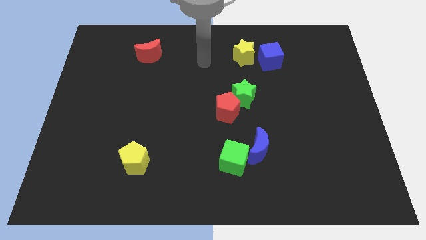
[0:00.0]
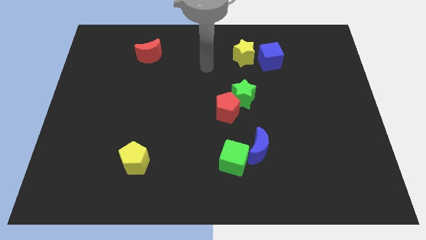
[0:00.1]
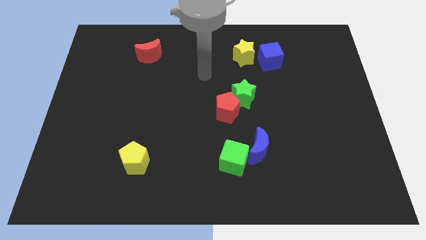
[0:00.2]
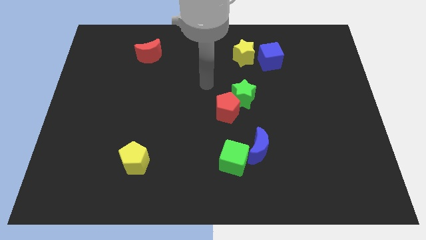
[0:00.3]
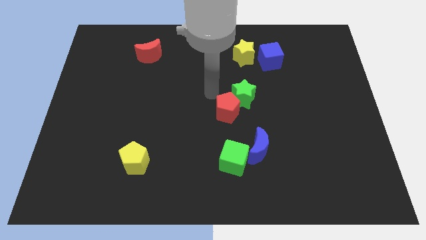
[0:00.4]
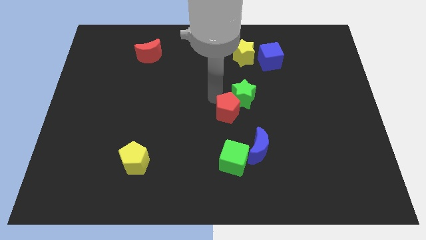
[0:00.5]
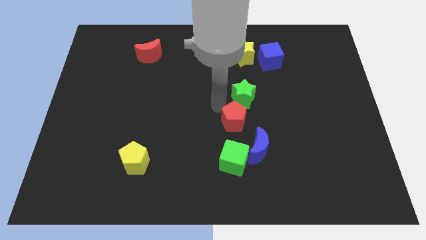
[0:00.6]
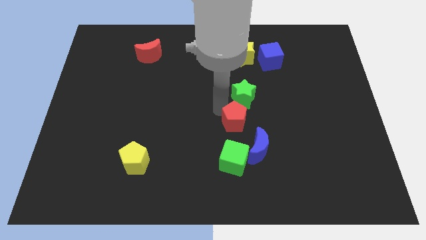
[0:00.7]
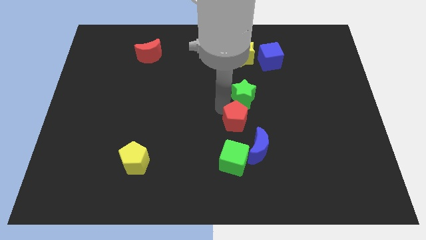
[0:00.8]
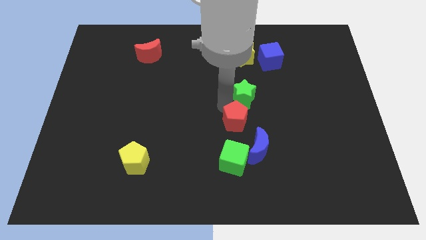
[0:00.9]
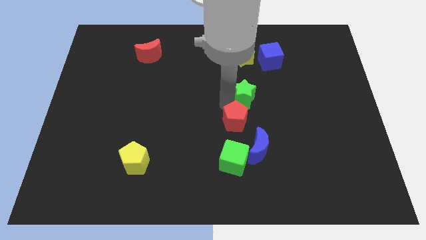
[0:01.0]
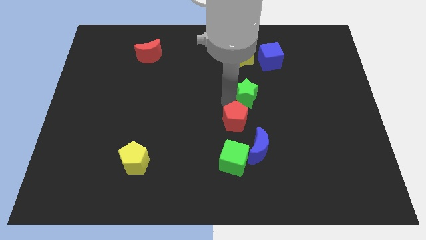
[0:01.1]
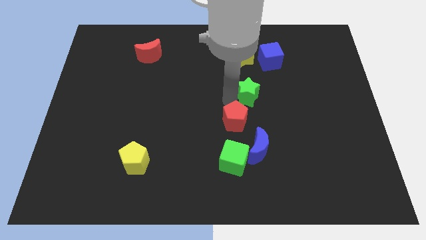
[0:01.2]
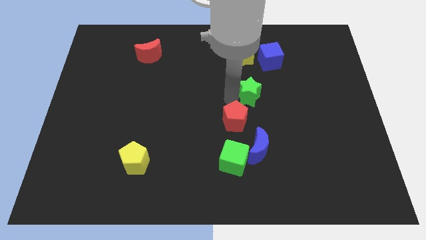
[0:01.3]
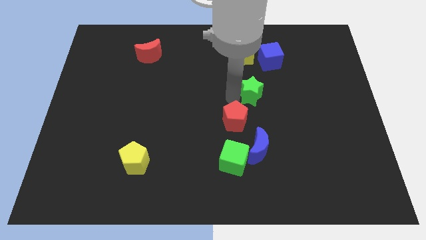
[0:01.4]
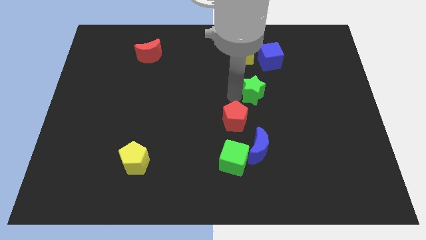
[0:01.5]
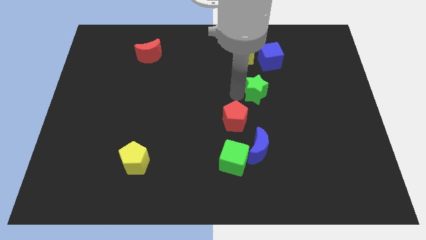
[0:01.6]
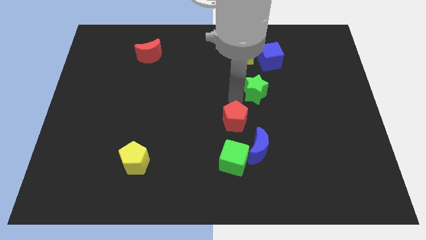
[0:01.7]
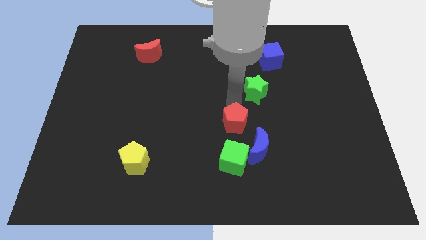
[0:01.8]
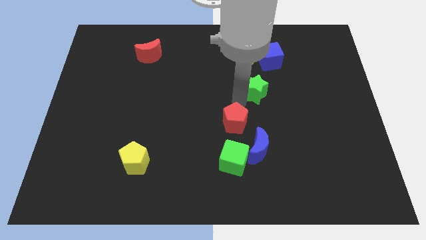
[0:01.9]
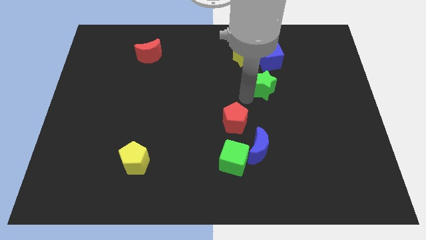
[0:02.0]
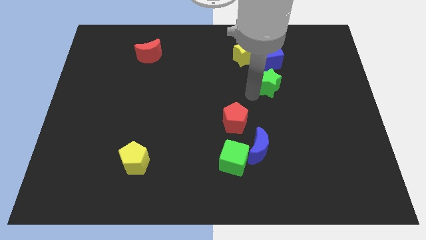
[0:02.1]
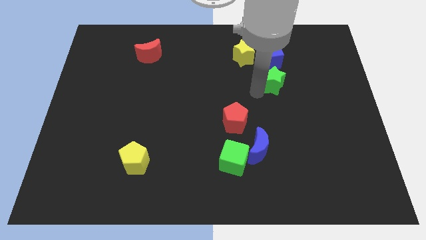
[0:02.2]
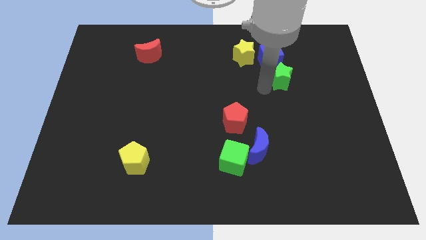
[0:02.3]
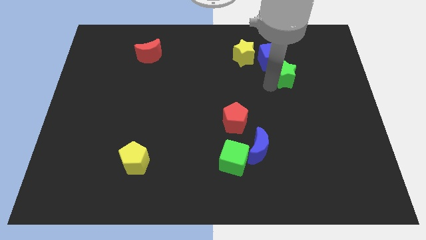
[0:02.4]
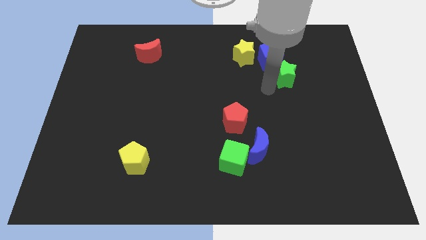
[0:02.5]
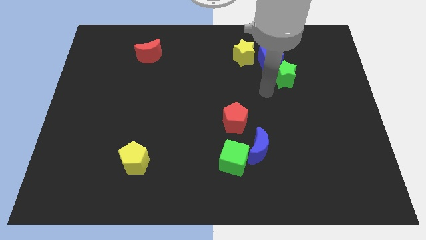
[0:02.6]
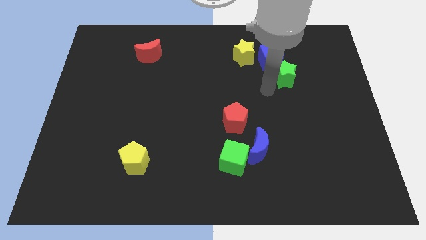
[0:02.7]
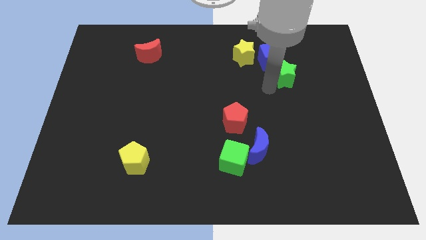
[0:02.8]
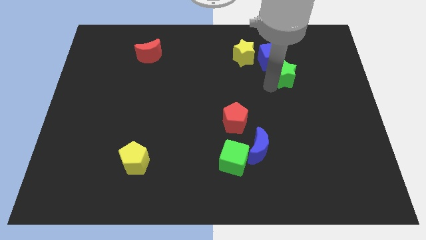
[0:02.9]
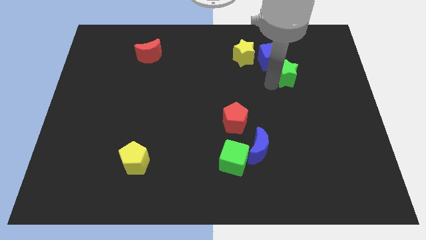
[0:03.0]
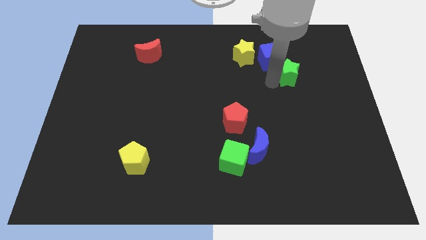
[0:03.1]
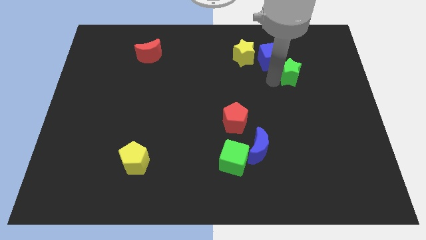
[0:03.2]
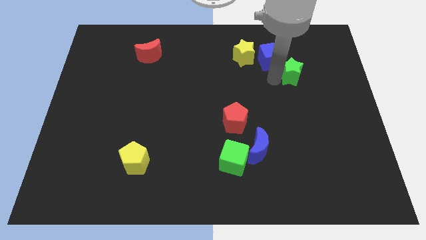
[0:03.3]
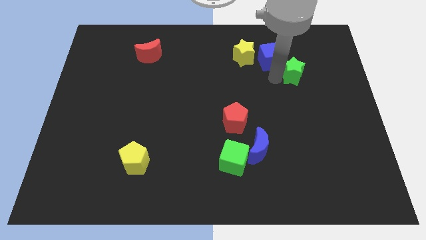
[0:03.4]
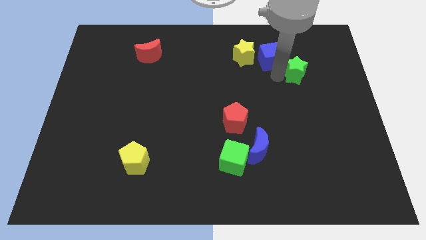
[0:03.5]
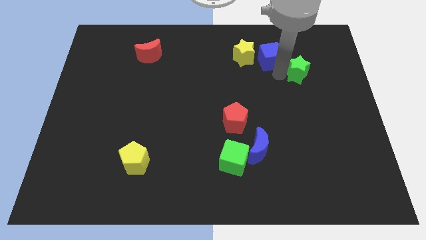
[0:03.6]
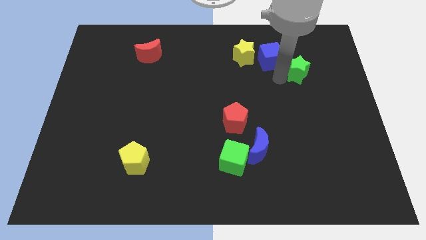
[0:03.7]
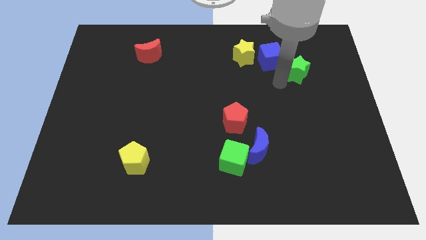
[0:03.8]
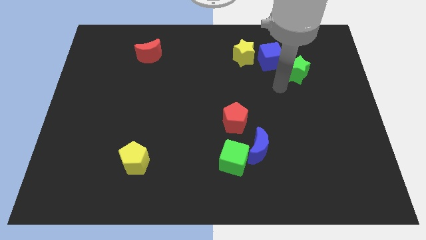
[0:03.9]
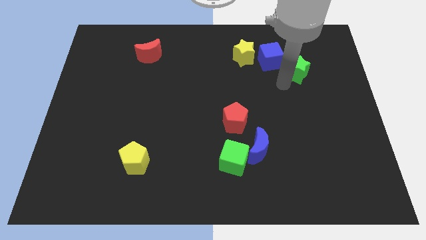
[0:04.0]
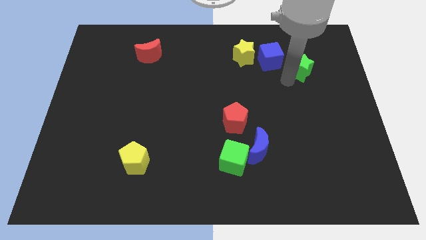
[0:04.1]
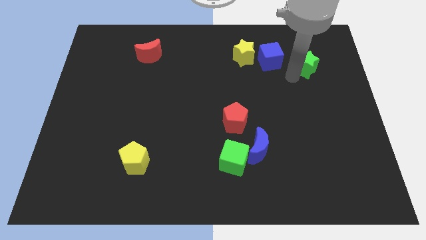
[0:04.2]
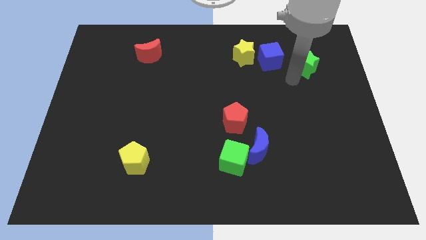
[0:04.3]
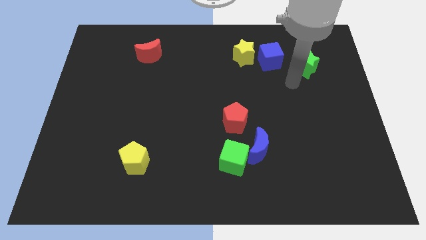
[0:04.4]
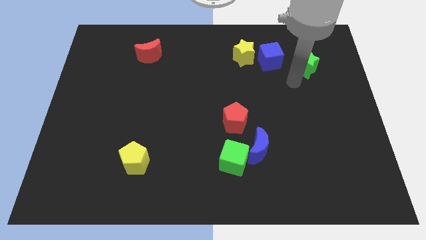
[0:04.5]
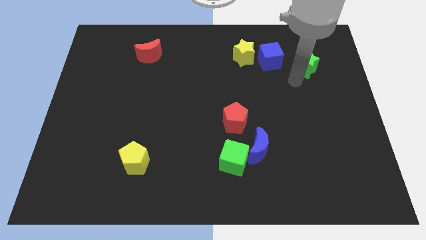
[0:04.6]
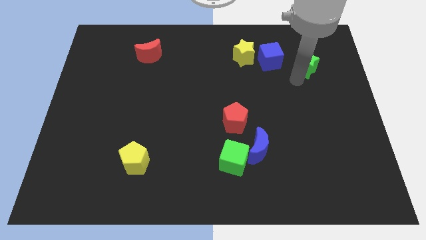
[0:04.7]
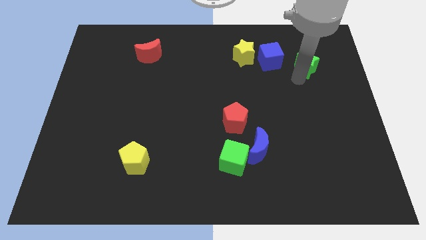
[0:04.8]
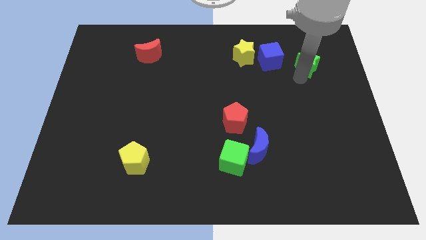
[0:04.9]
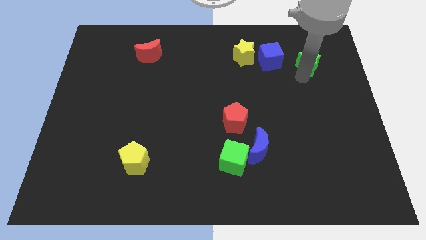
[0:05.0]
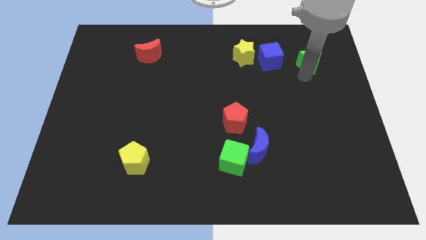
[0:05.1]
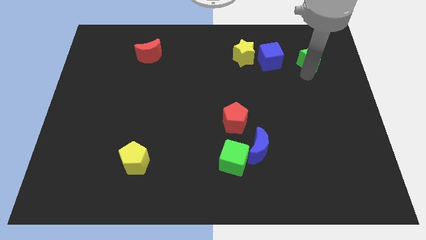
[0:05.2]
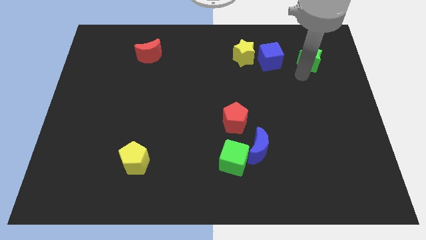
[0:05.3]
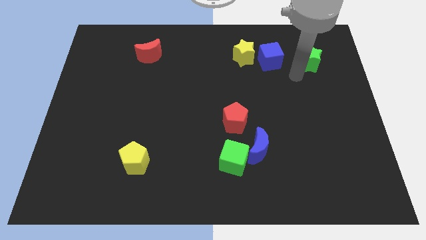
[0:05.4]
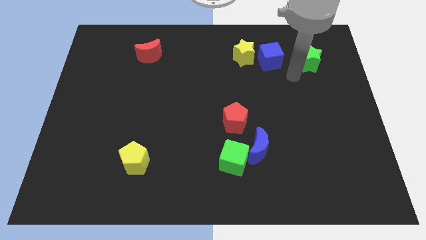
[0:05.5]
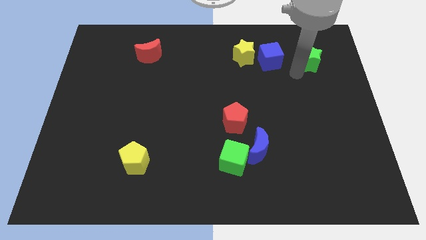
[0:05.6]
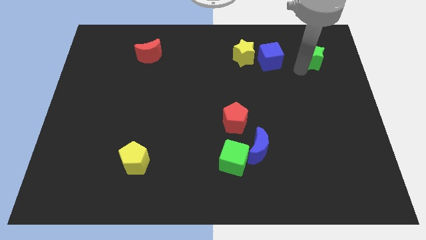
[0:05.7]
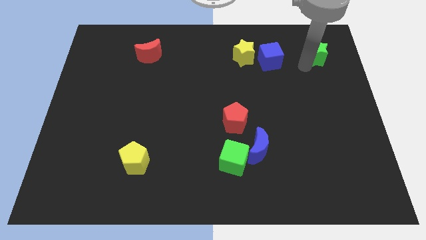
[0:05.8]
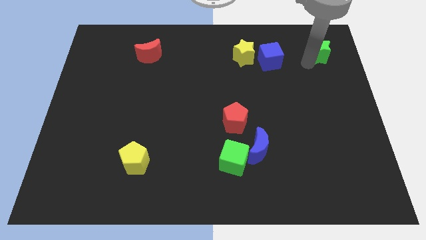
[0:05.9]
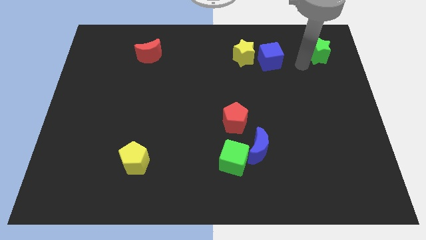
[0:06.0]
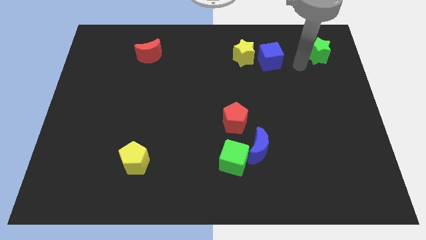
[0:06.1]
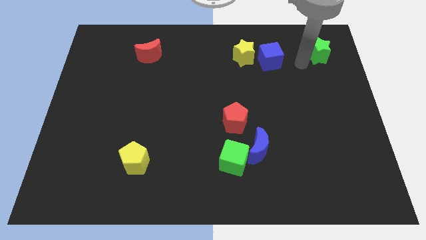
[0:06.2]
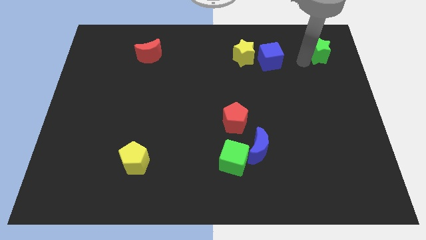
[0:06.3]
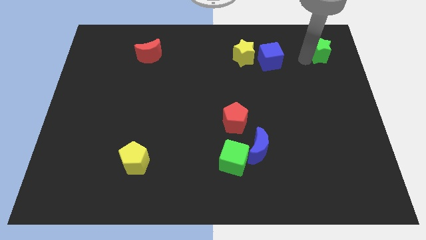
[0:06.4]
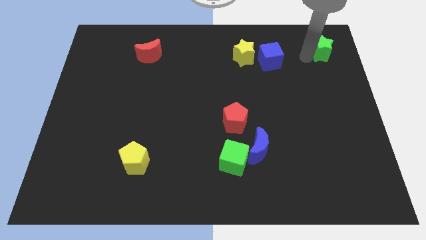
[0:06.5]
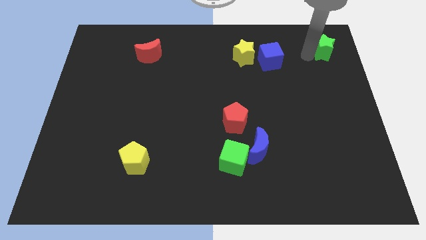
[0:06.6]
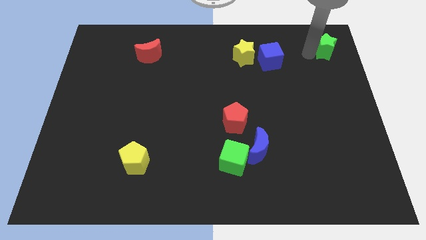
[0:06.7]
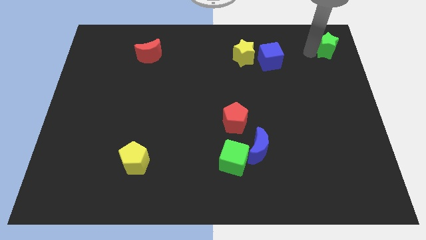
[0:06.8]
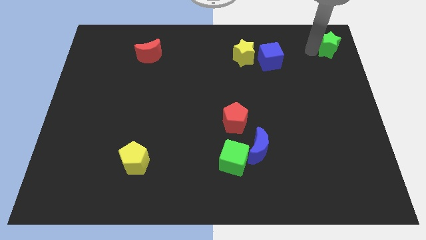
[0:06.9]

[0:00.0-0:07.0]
push the green star to the top right corner
